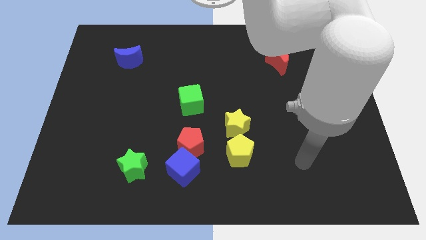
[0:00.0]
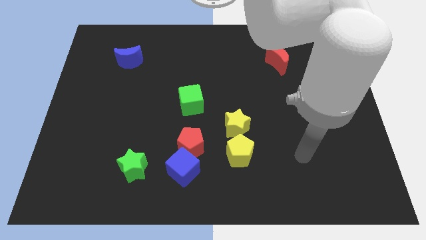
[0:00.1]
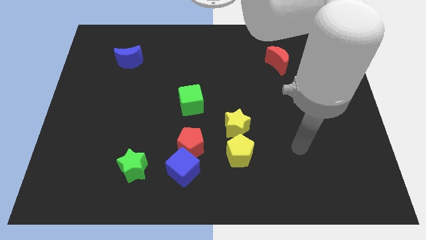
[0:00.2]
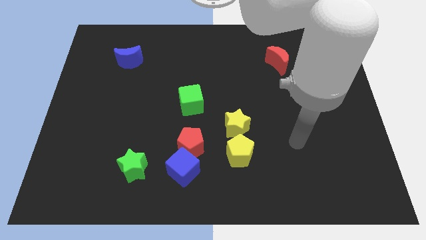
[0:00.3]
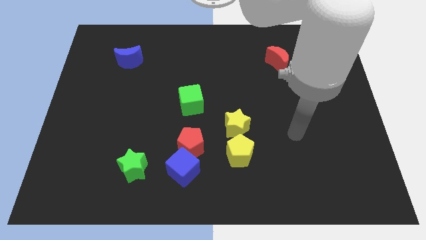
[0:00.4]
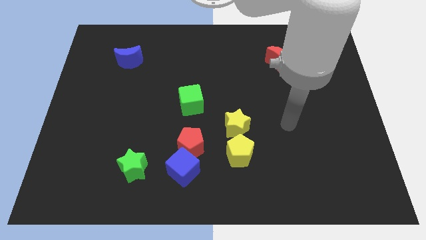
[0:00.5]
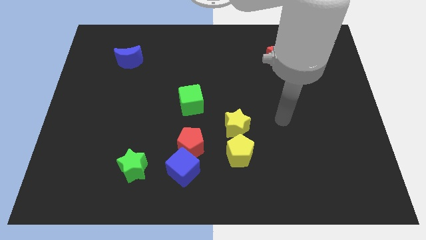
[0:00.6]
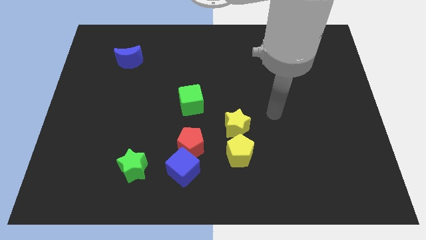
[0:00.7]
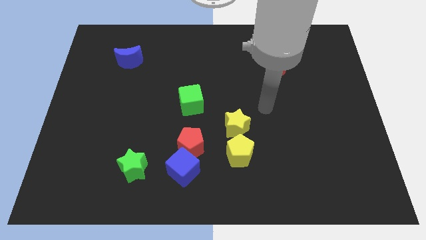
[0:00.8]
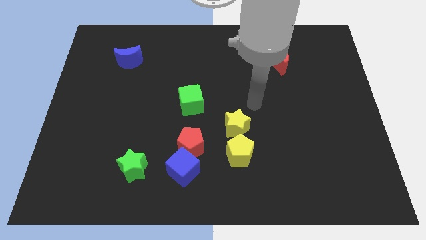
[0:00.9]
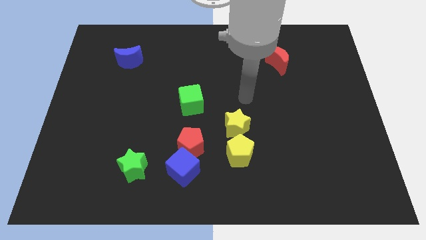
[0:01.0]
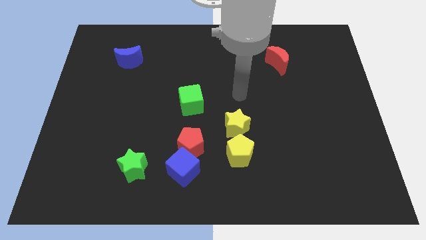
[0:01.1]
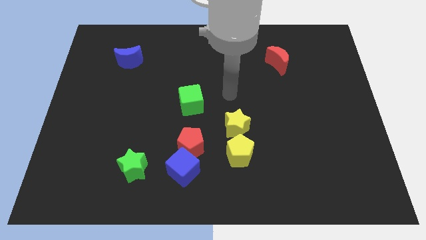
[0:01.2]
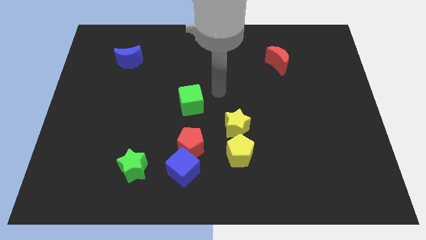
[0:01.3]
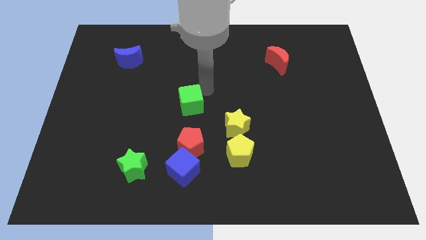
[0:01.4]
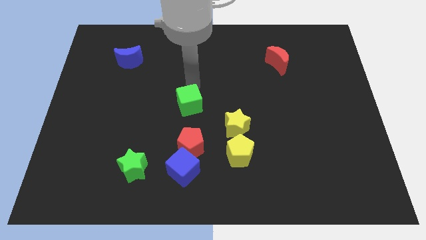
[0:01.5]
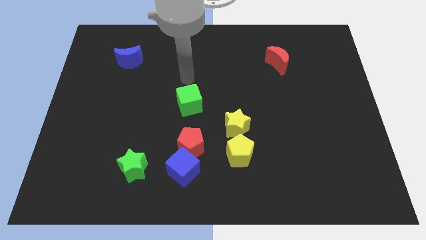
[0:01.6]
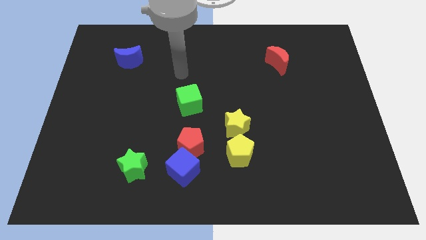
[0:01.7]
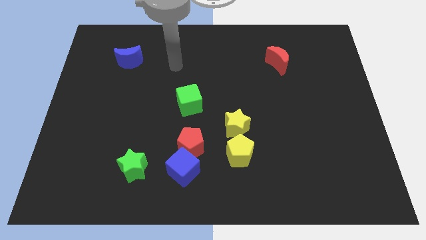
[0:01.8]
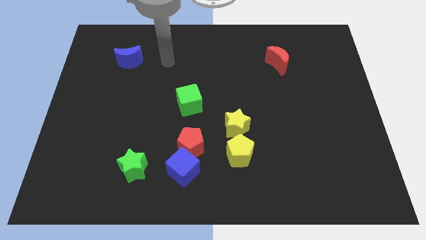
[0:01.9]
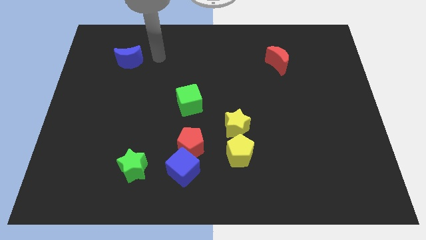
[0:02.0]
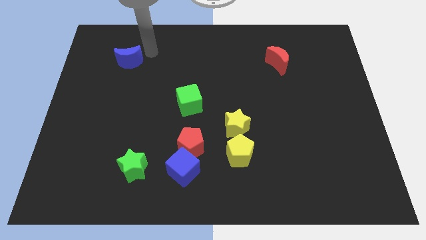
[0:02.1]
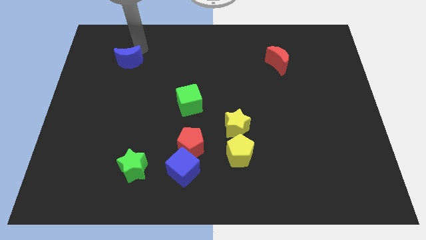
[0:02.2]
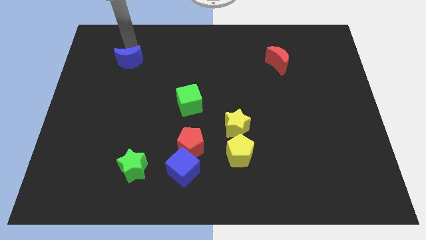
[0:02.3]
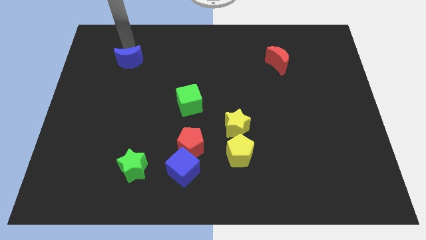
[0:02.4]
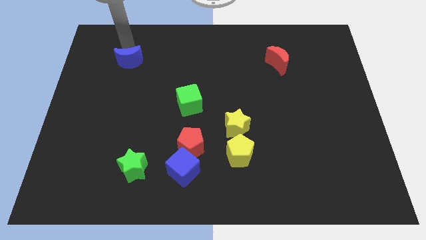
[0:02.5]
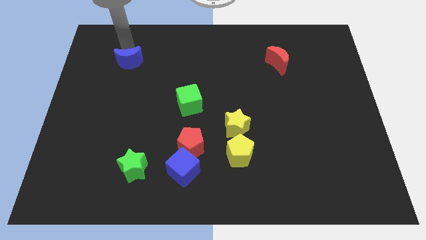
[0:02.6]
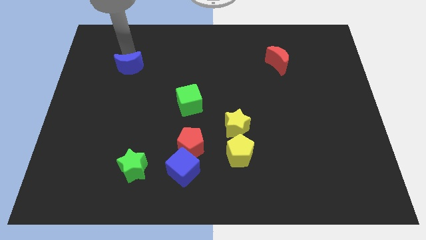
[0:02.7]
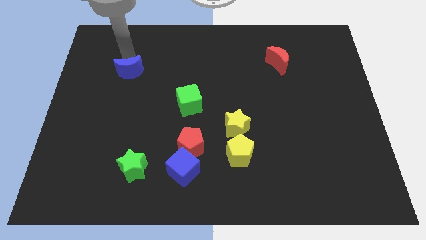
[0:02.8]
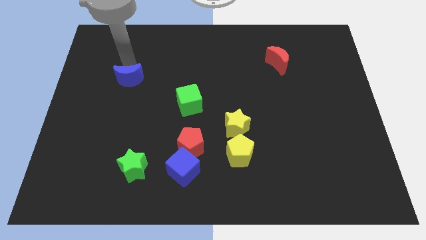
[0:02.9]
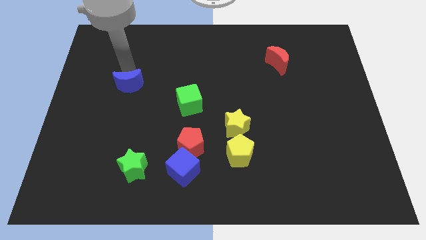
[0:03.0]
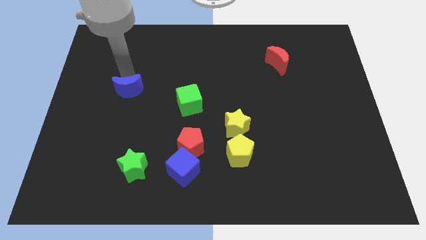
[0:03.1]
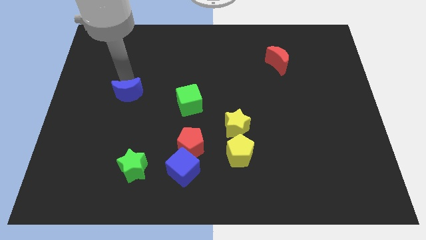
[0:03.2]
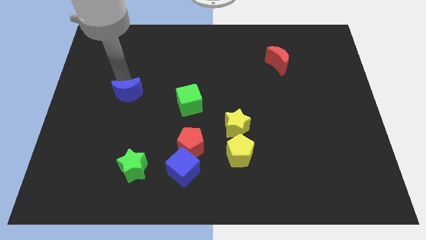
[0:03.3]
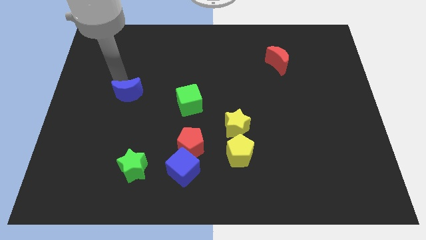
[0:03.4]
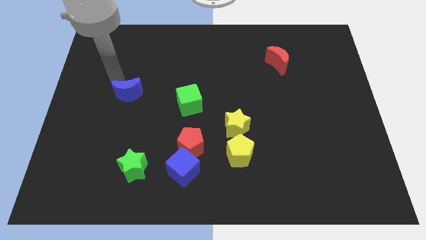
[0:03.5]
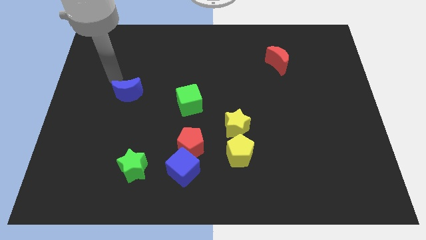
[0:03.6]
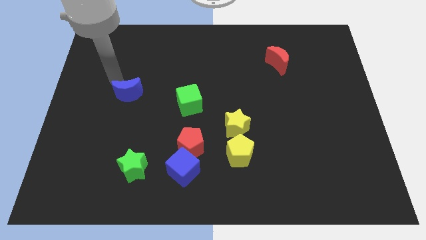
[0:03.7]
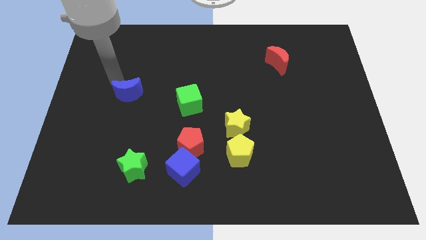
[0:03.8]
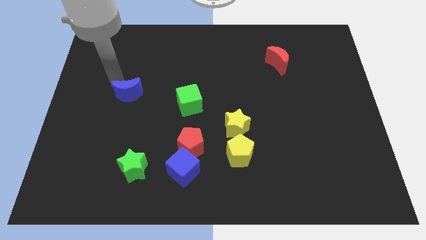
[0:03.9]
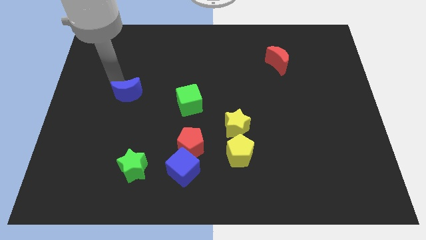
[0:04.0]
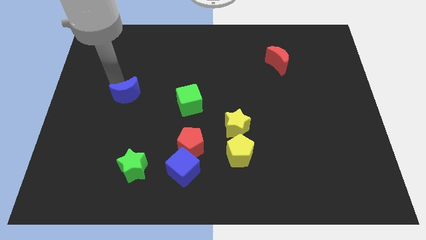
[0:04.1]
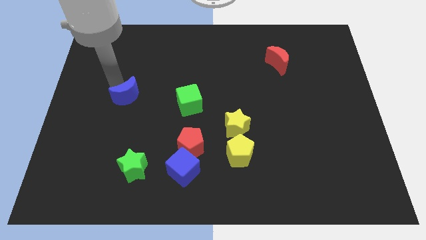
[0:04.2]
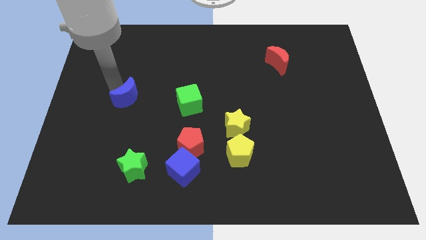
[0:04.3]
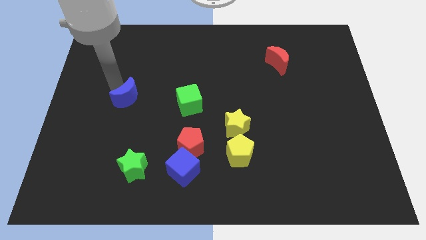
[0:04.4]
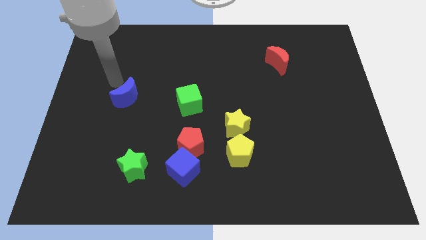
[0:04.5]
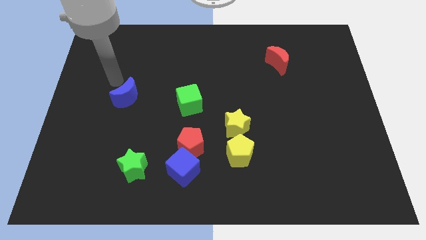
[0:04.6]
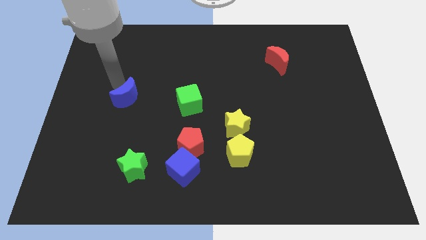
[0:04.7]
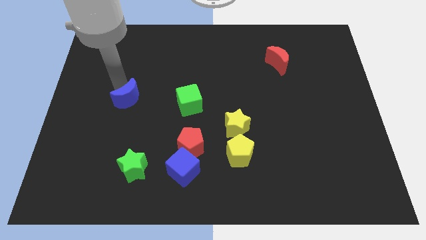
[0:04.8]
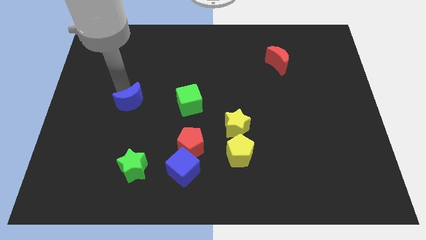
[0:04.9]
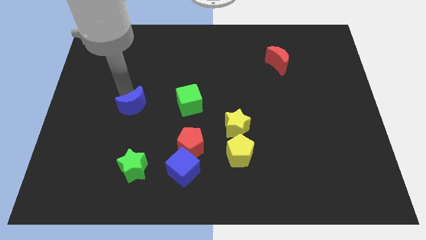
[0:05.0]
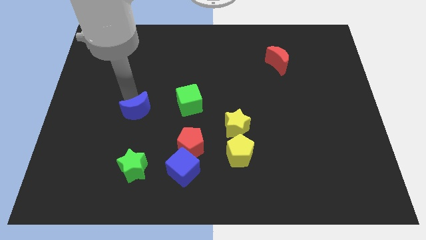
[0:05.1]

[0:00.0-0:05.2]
push the blue moon to the top of the green star

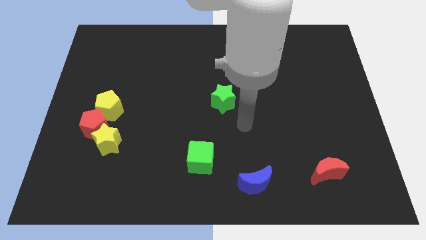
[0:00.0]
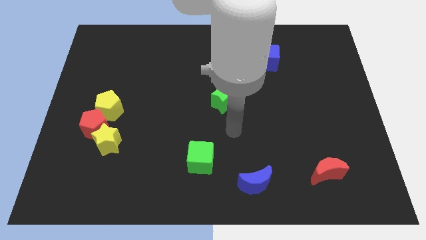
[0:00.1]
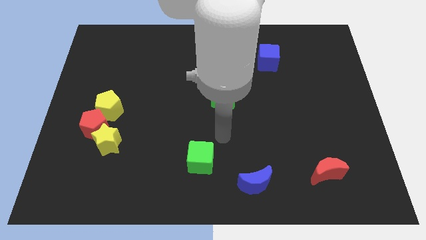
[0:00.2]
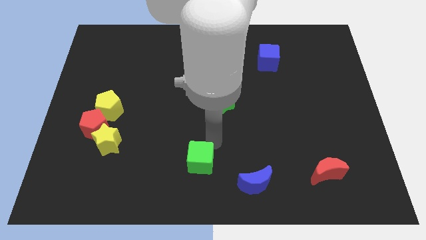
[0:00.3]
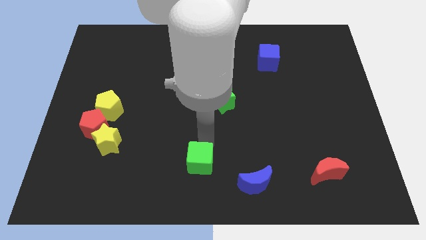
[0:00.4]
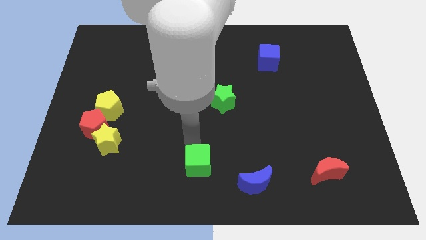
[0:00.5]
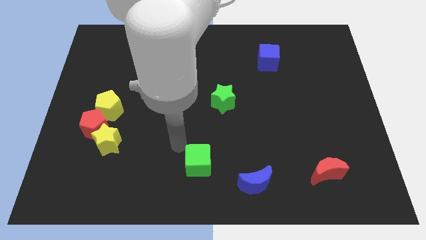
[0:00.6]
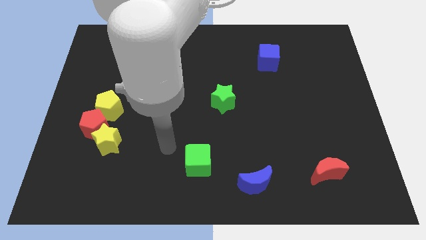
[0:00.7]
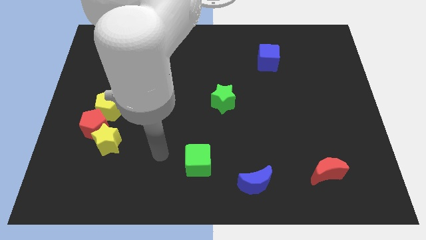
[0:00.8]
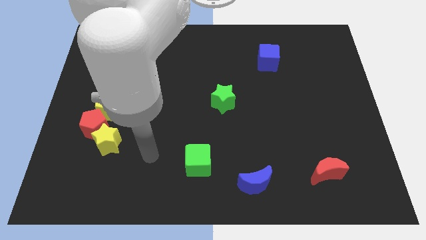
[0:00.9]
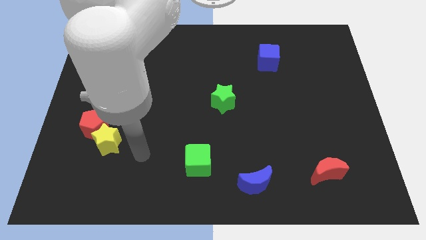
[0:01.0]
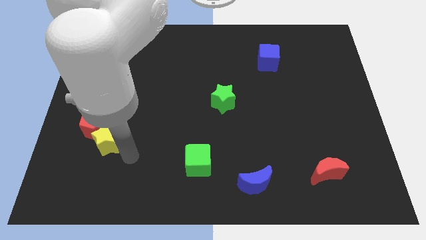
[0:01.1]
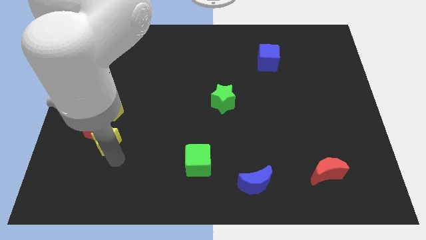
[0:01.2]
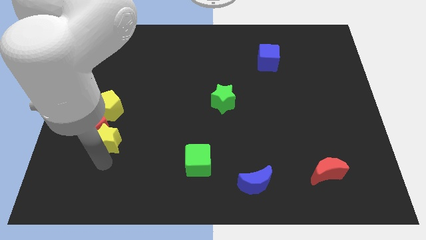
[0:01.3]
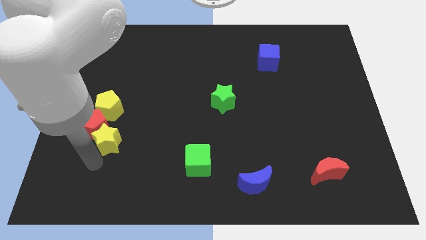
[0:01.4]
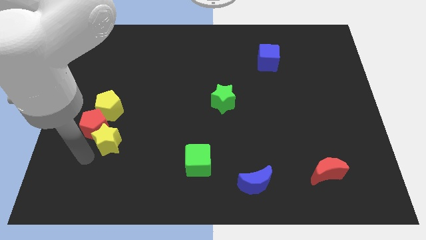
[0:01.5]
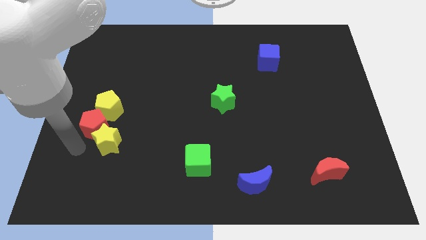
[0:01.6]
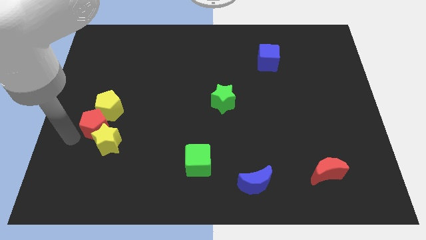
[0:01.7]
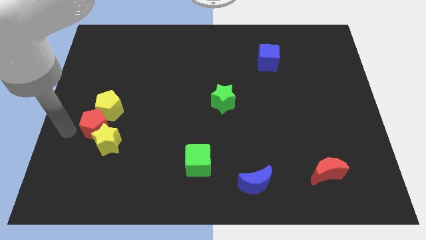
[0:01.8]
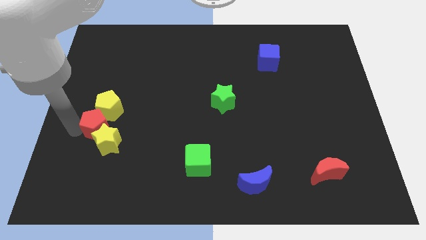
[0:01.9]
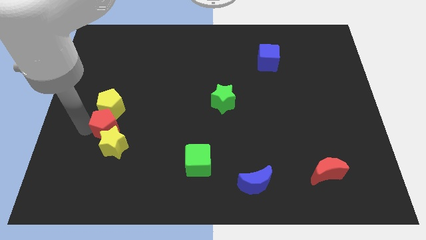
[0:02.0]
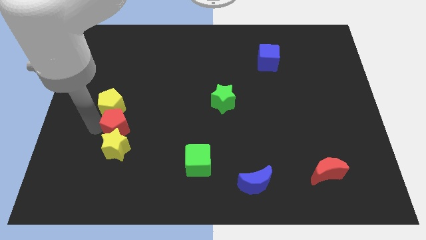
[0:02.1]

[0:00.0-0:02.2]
push the red pentagon to the top right side of the yellow star

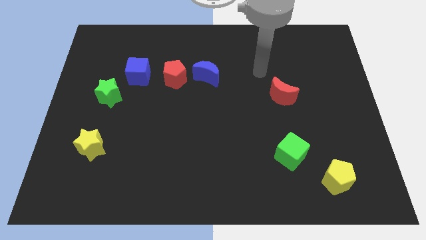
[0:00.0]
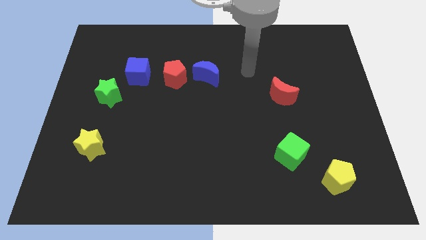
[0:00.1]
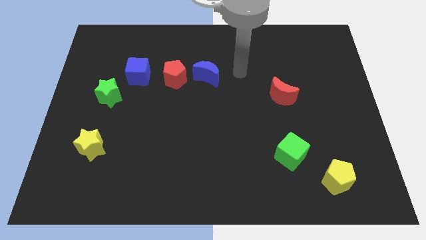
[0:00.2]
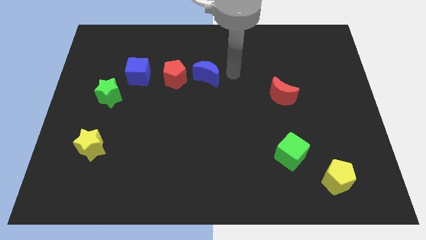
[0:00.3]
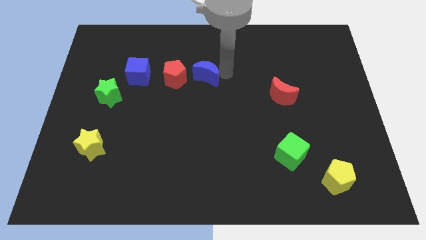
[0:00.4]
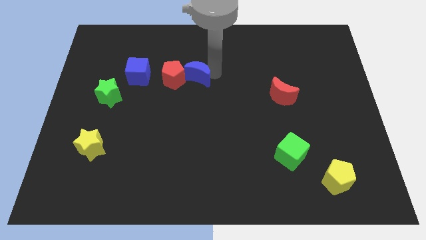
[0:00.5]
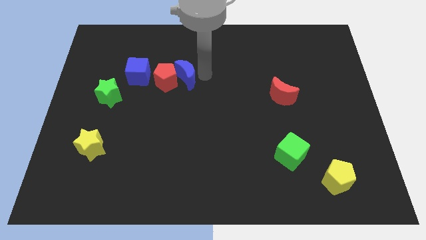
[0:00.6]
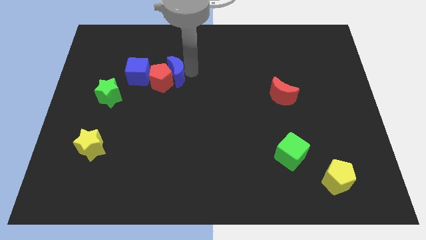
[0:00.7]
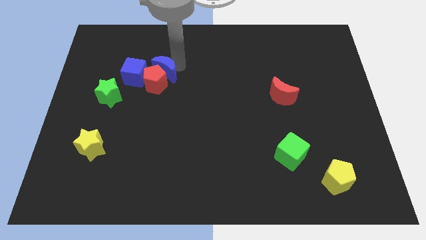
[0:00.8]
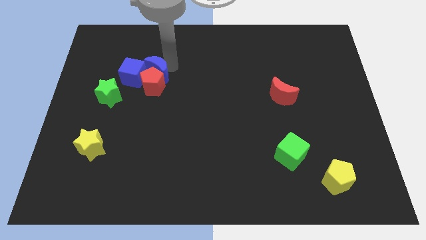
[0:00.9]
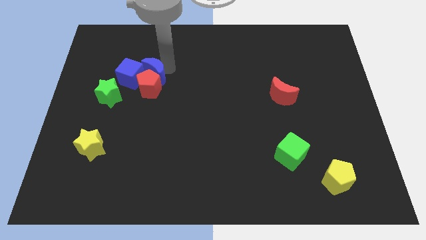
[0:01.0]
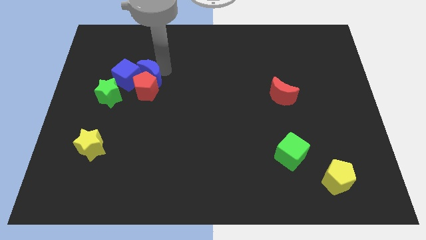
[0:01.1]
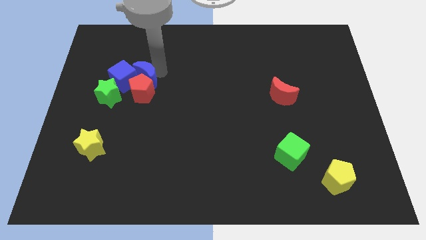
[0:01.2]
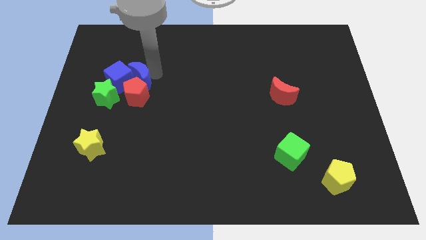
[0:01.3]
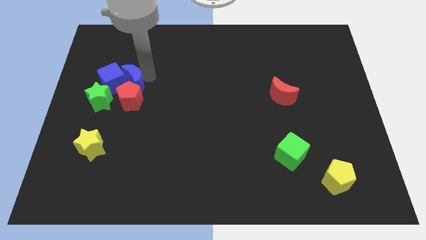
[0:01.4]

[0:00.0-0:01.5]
slide the red pentagon to the bottom right of the green star
